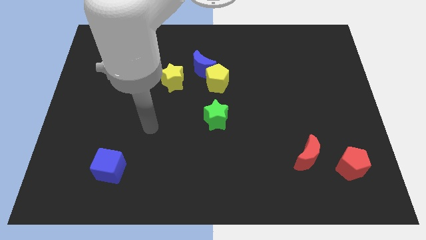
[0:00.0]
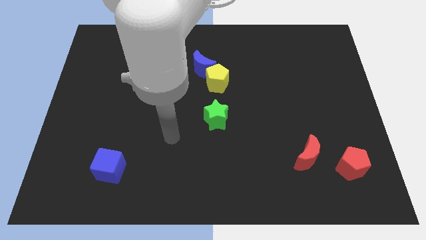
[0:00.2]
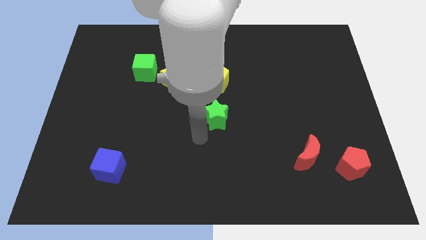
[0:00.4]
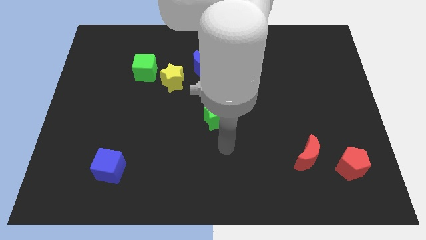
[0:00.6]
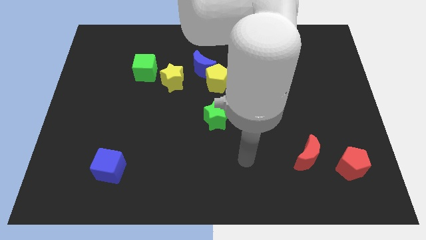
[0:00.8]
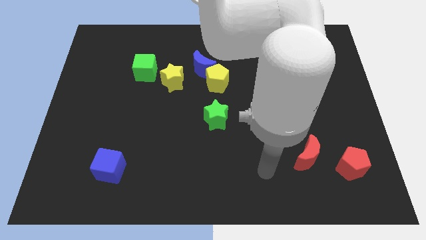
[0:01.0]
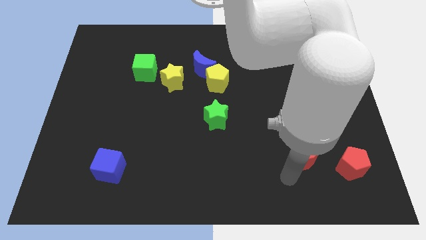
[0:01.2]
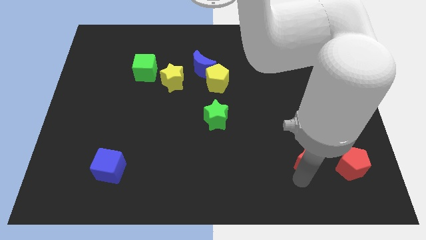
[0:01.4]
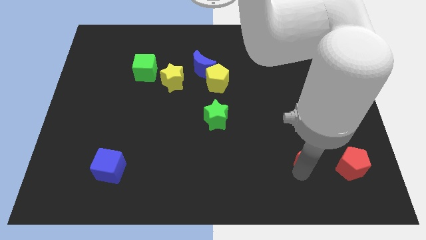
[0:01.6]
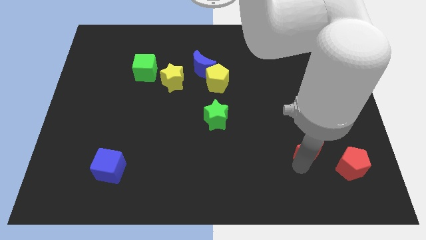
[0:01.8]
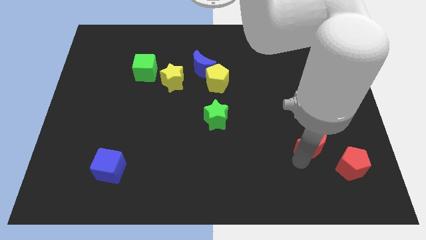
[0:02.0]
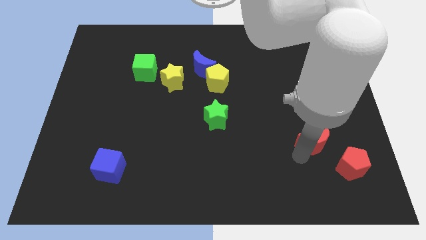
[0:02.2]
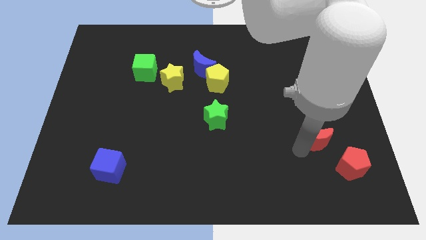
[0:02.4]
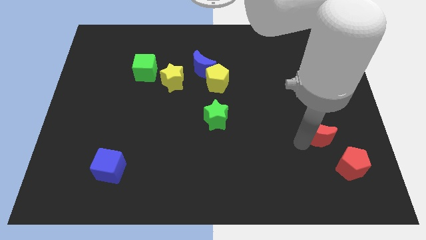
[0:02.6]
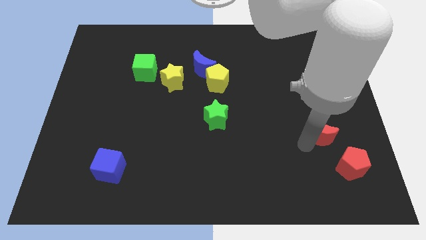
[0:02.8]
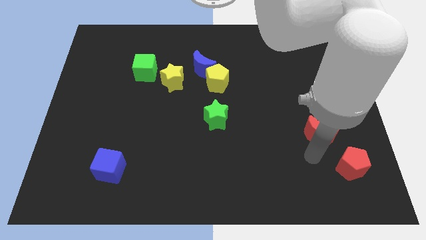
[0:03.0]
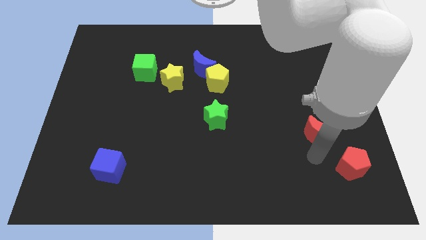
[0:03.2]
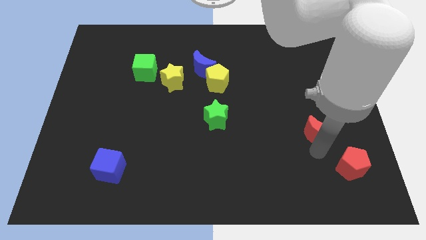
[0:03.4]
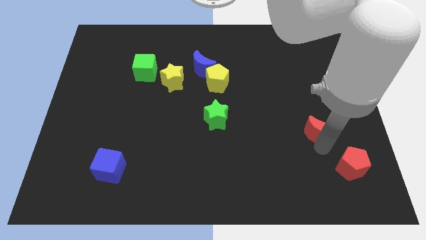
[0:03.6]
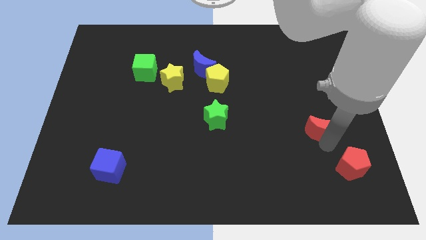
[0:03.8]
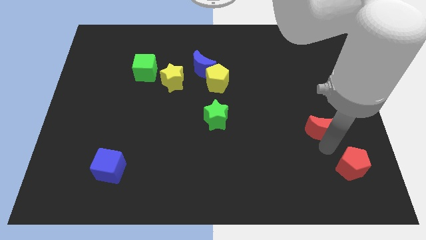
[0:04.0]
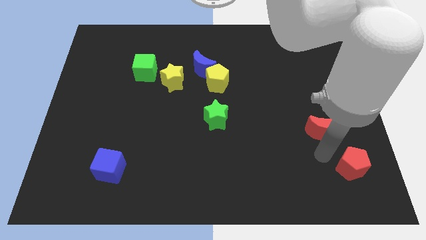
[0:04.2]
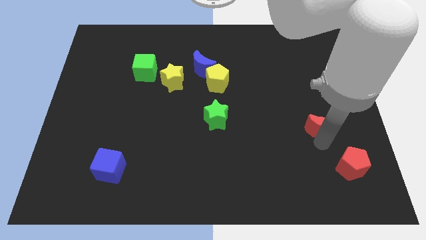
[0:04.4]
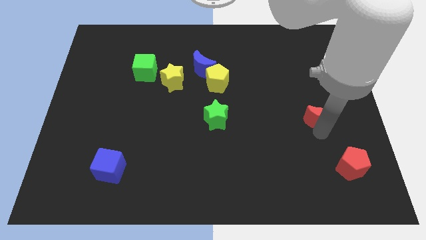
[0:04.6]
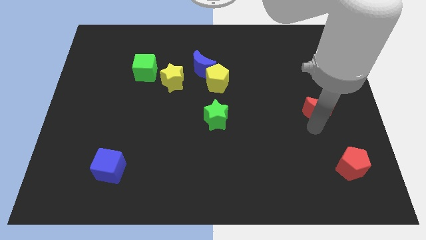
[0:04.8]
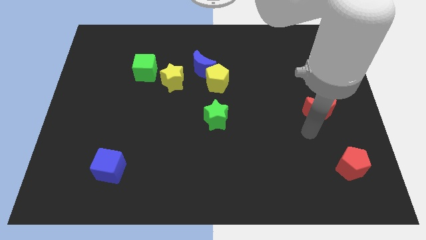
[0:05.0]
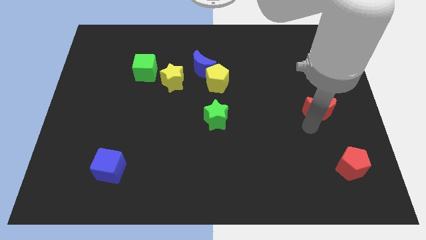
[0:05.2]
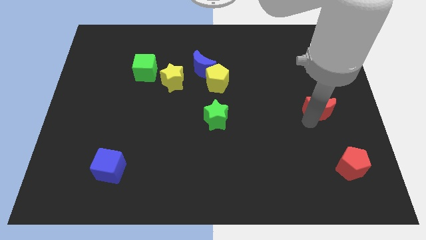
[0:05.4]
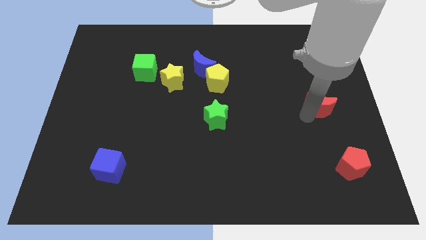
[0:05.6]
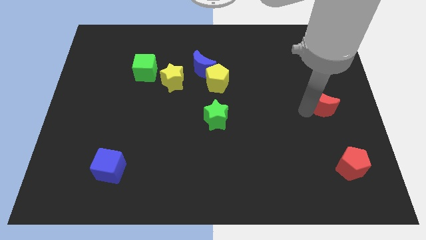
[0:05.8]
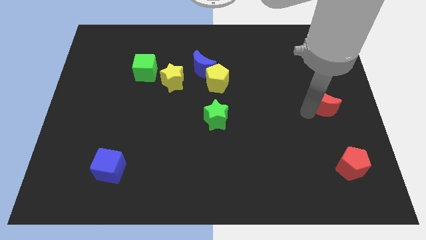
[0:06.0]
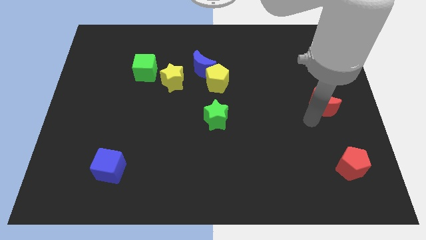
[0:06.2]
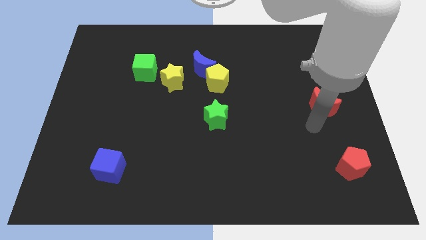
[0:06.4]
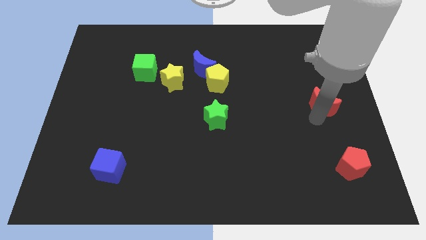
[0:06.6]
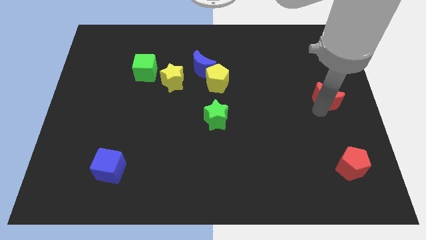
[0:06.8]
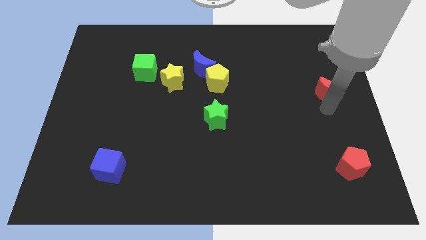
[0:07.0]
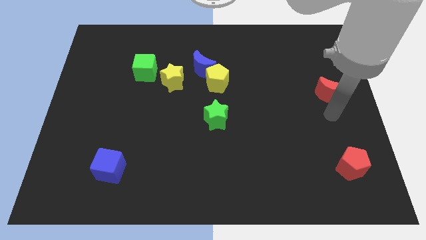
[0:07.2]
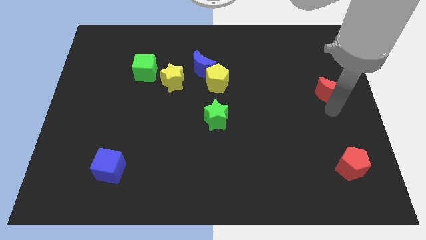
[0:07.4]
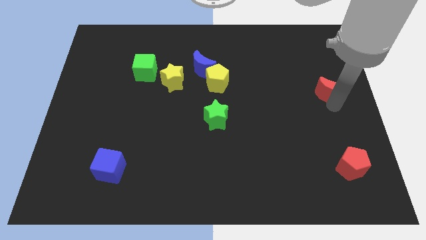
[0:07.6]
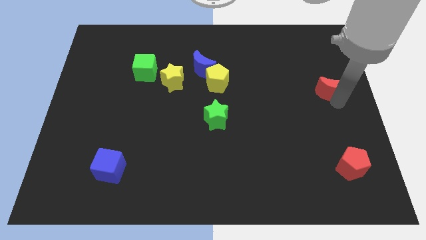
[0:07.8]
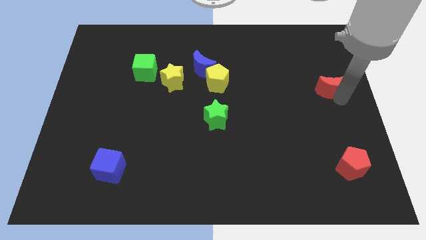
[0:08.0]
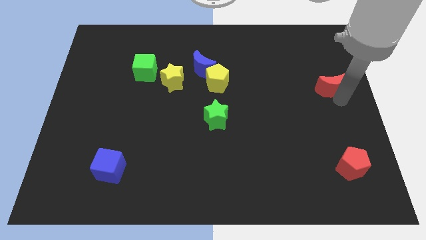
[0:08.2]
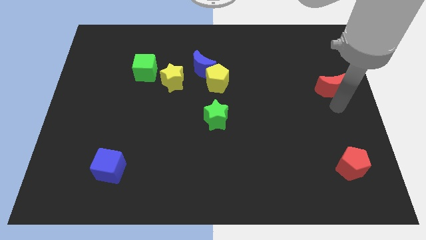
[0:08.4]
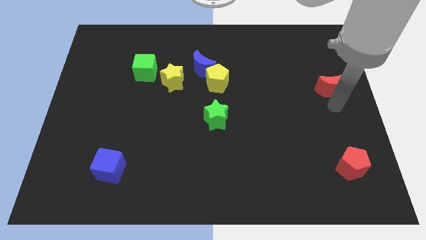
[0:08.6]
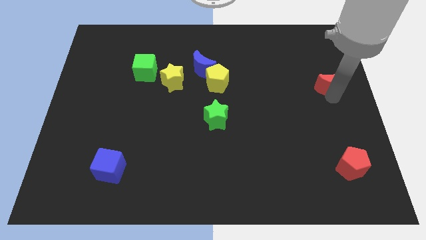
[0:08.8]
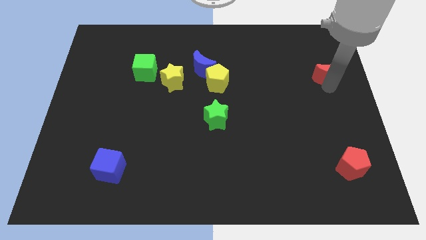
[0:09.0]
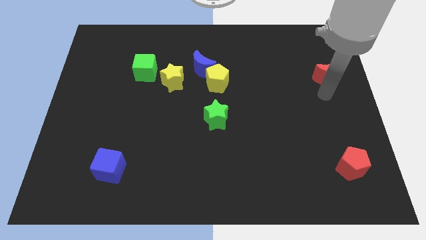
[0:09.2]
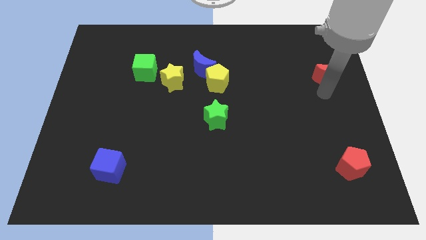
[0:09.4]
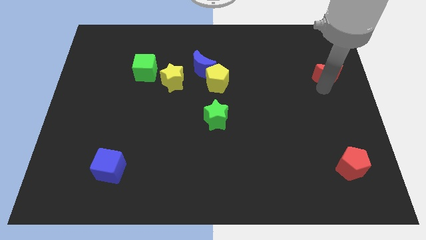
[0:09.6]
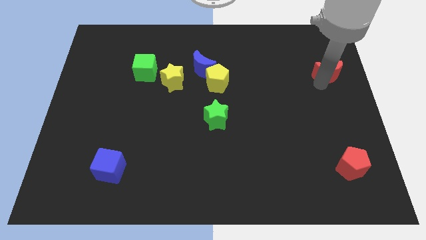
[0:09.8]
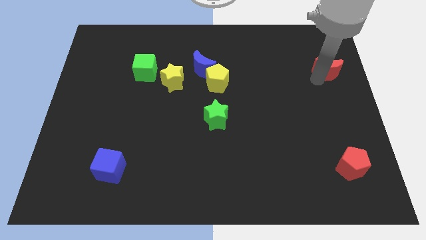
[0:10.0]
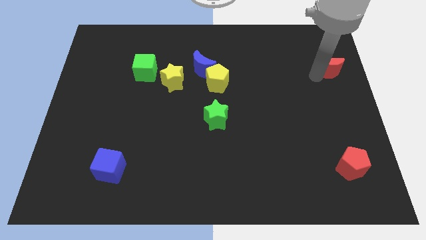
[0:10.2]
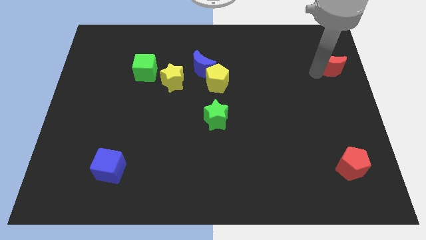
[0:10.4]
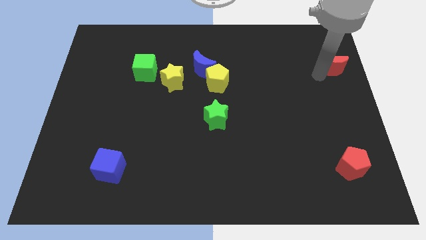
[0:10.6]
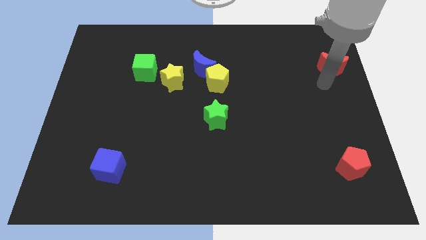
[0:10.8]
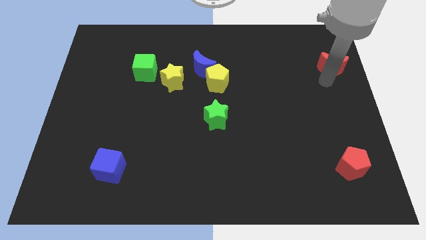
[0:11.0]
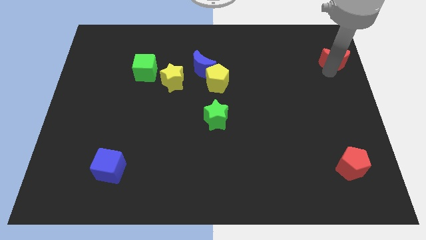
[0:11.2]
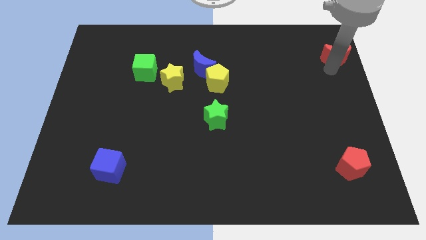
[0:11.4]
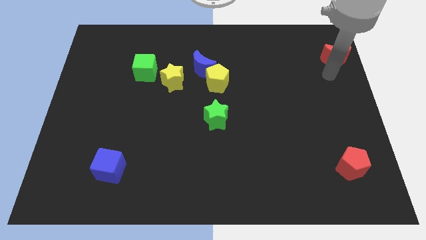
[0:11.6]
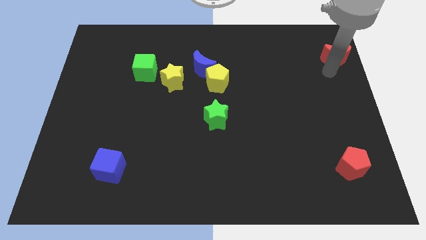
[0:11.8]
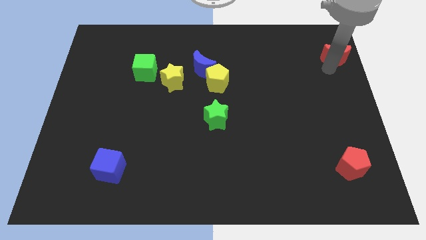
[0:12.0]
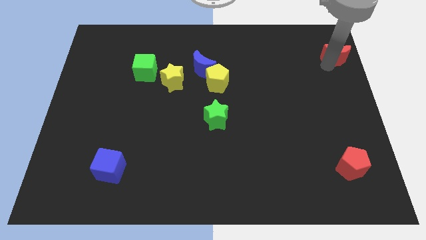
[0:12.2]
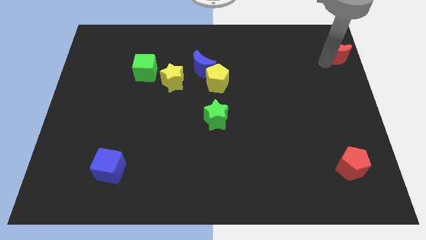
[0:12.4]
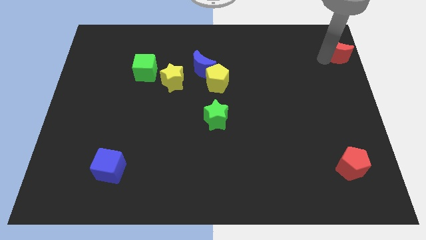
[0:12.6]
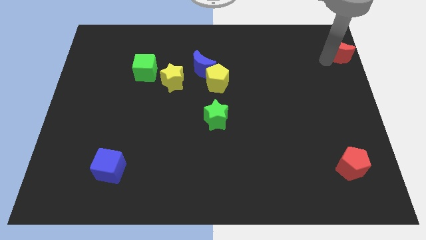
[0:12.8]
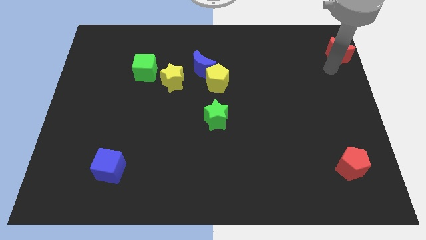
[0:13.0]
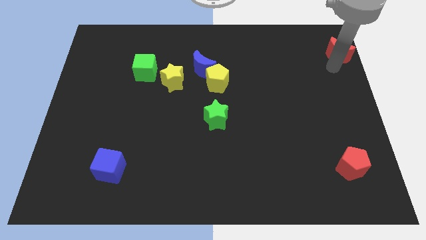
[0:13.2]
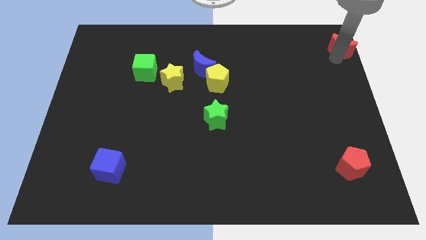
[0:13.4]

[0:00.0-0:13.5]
put the red moon to the top right
